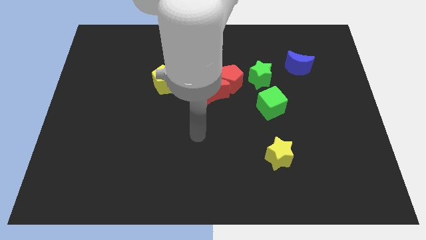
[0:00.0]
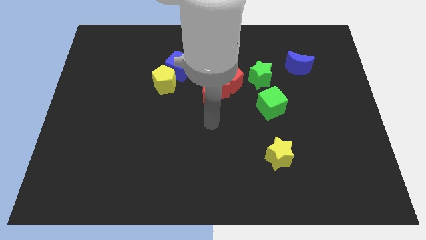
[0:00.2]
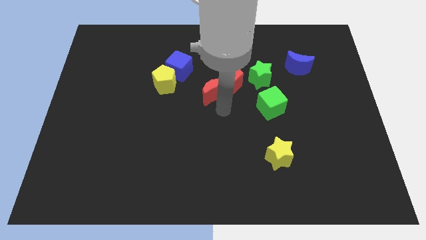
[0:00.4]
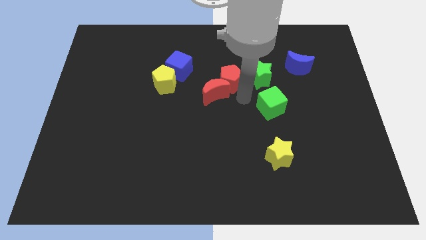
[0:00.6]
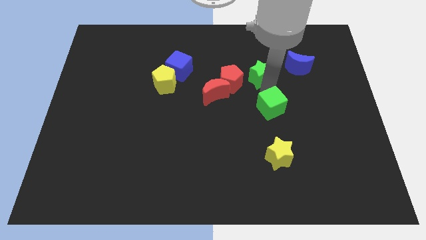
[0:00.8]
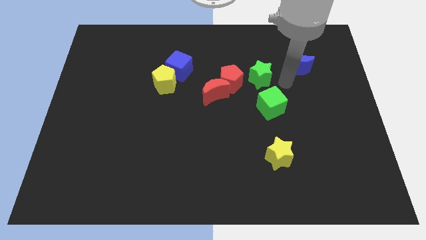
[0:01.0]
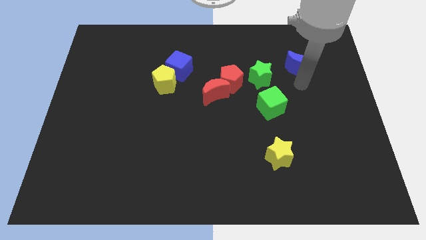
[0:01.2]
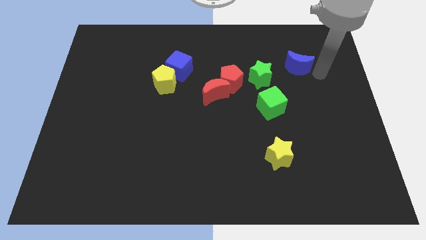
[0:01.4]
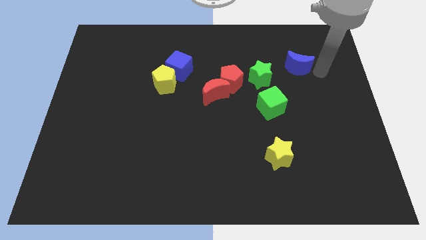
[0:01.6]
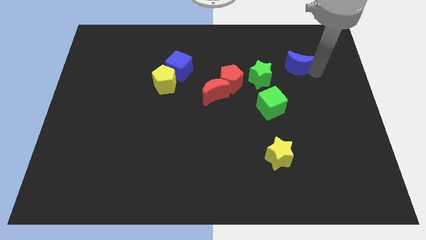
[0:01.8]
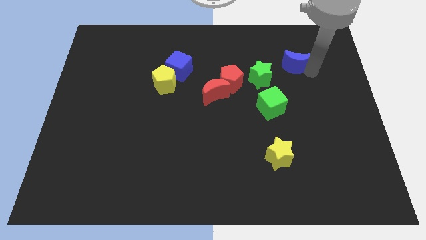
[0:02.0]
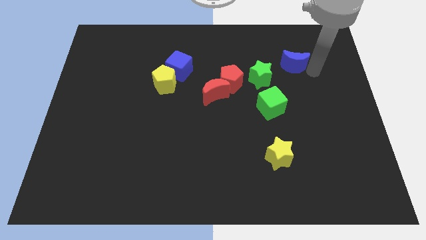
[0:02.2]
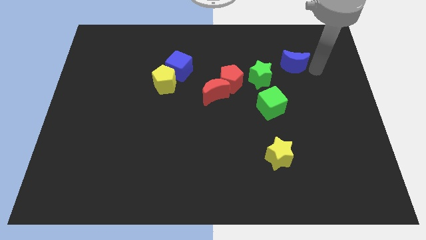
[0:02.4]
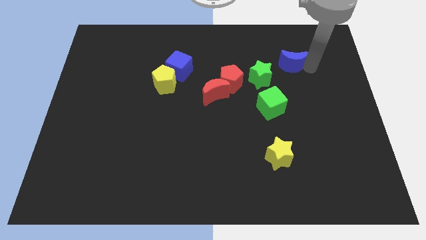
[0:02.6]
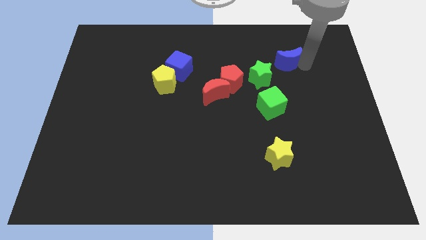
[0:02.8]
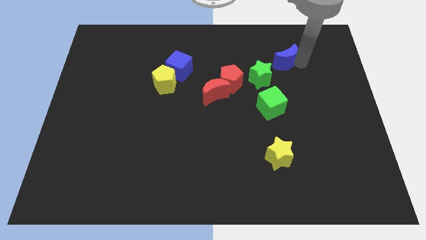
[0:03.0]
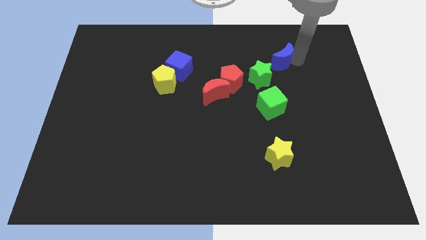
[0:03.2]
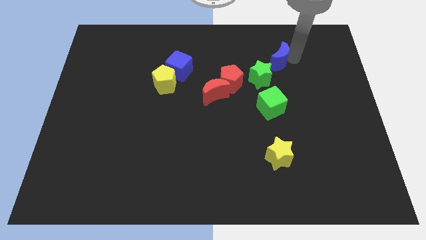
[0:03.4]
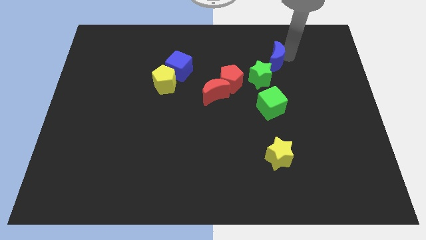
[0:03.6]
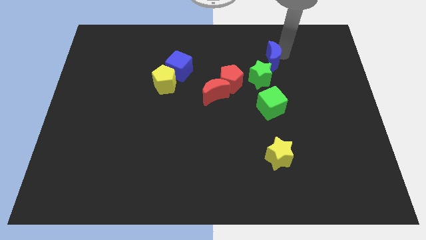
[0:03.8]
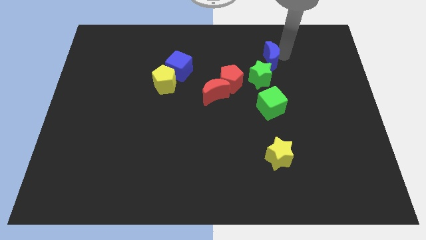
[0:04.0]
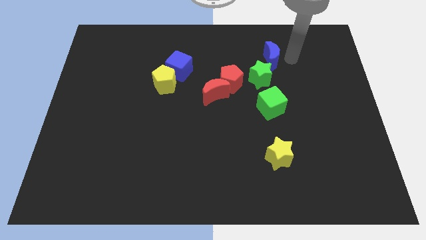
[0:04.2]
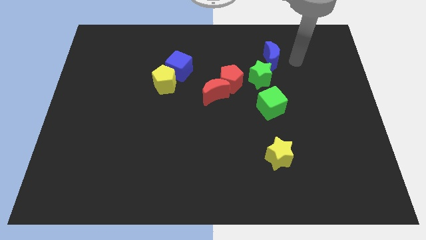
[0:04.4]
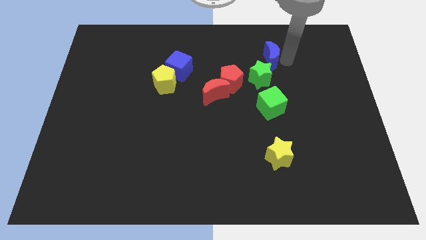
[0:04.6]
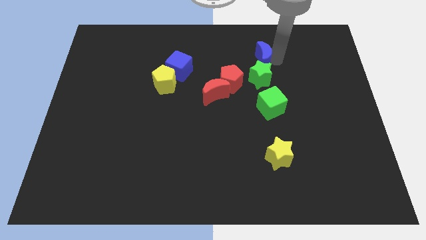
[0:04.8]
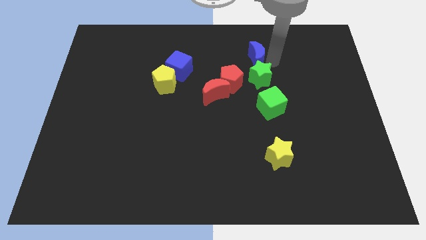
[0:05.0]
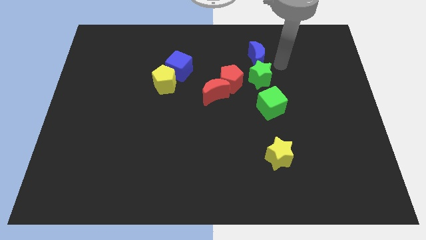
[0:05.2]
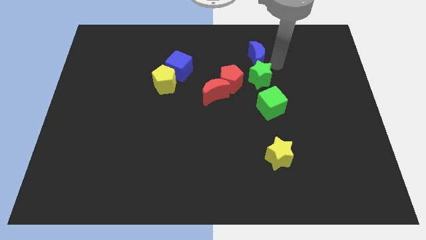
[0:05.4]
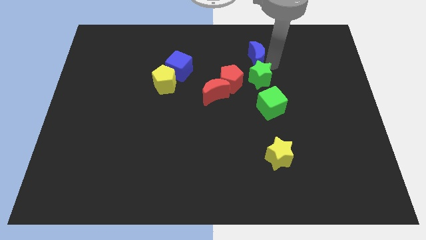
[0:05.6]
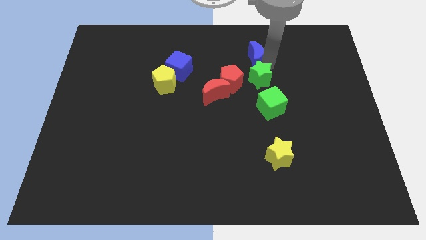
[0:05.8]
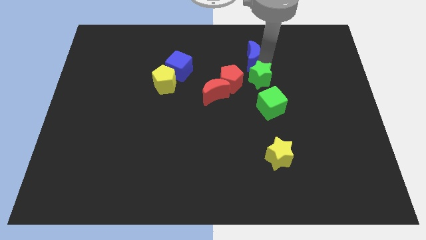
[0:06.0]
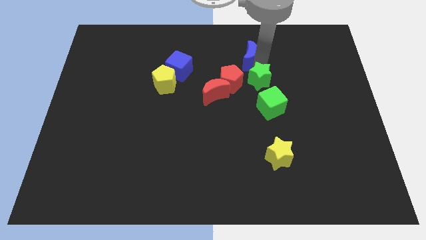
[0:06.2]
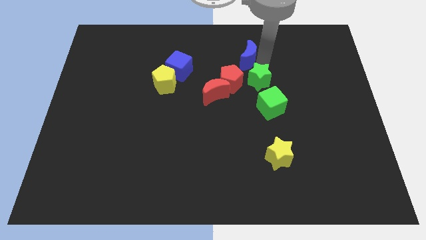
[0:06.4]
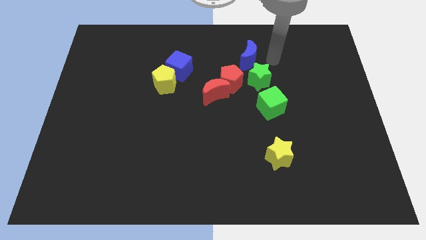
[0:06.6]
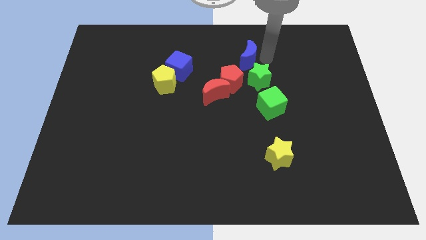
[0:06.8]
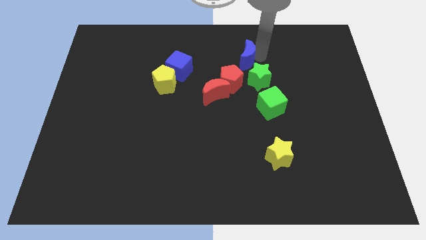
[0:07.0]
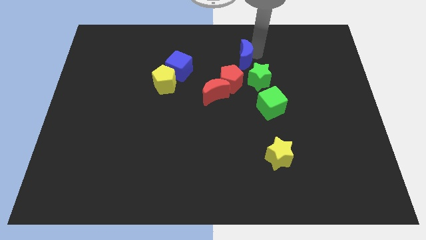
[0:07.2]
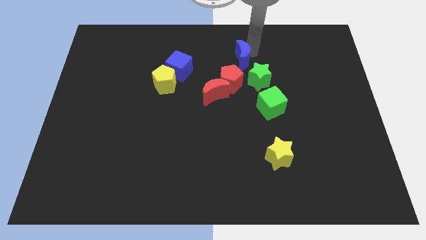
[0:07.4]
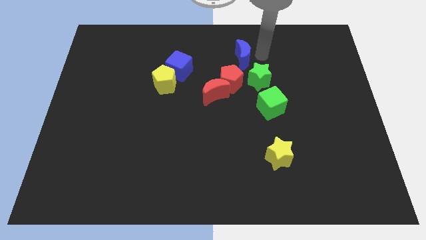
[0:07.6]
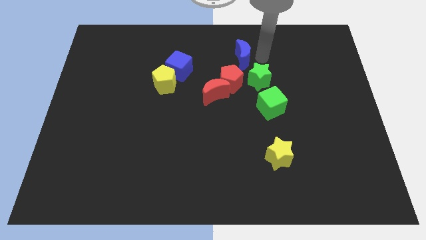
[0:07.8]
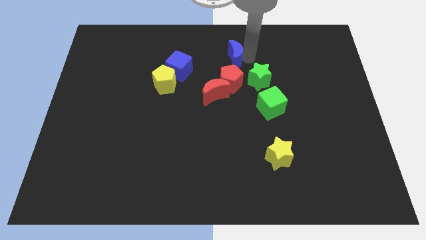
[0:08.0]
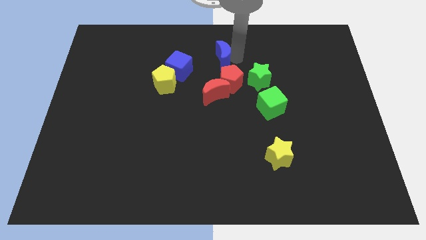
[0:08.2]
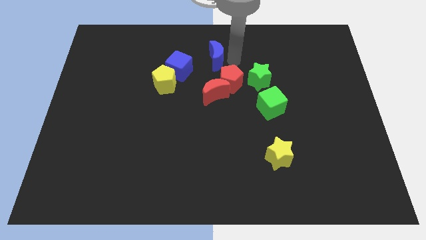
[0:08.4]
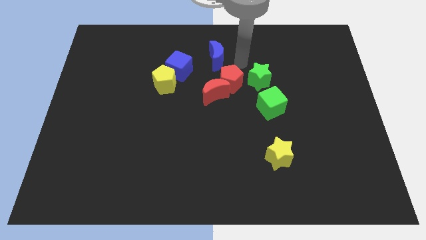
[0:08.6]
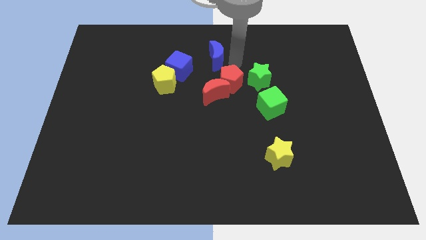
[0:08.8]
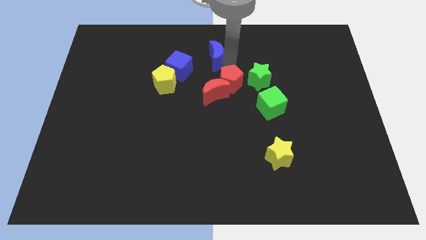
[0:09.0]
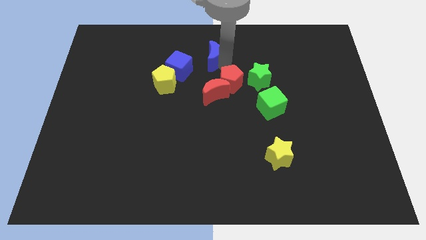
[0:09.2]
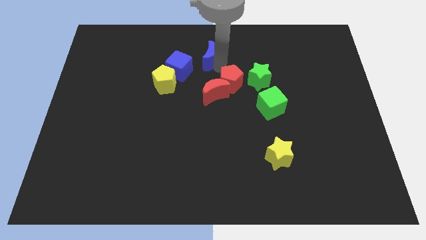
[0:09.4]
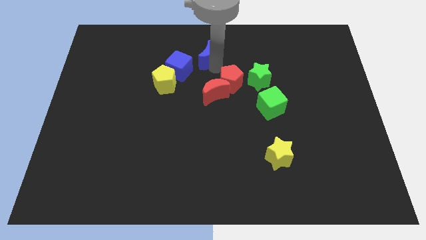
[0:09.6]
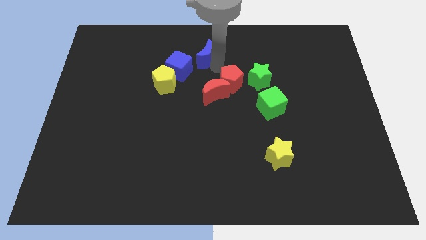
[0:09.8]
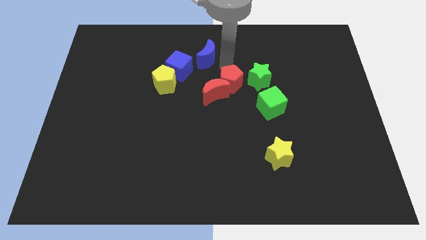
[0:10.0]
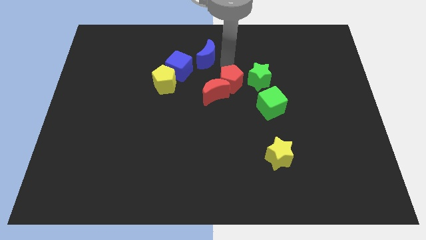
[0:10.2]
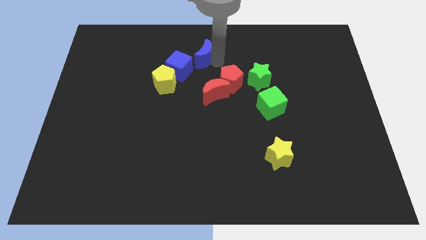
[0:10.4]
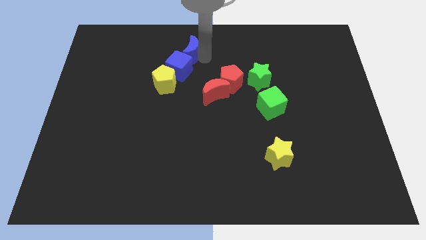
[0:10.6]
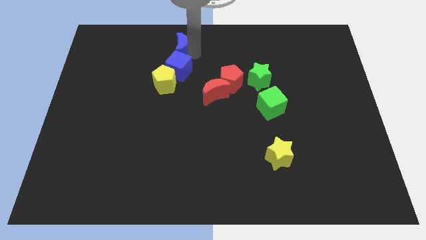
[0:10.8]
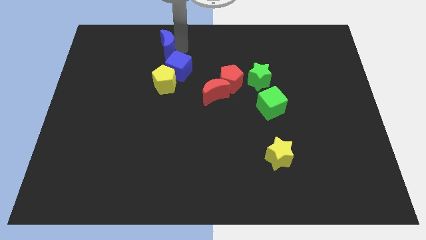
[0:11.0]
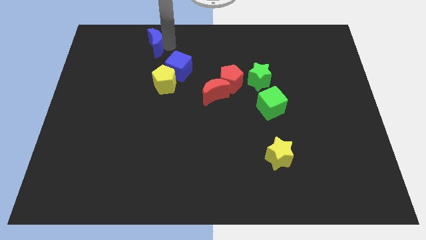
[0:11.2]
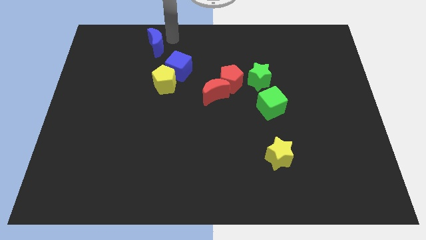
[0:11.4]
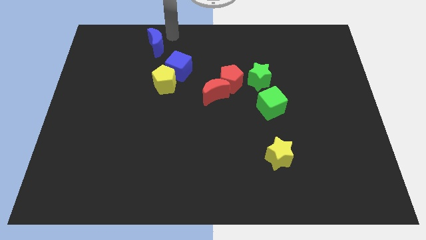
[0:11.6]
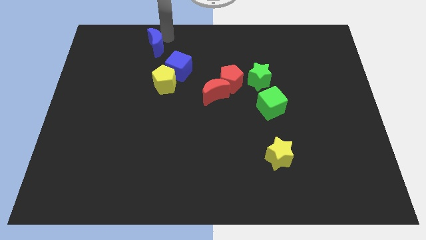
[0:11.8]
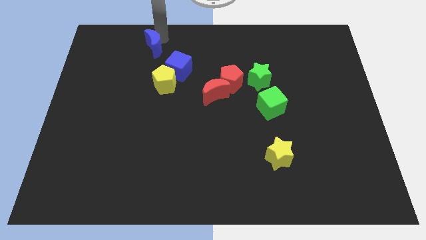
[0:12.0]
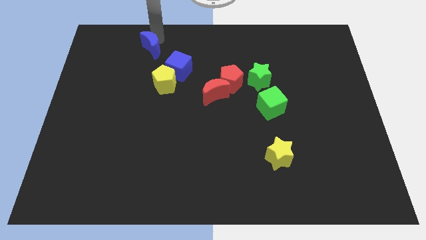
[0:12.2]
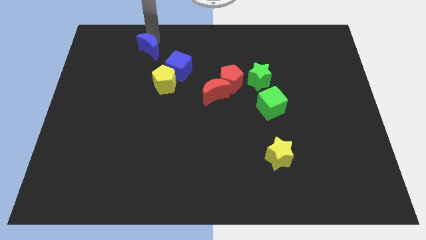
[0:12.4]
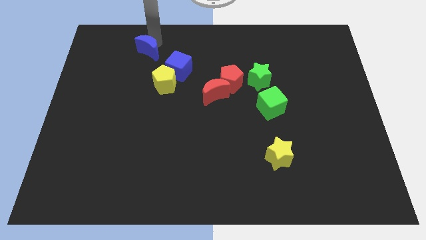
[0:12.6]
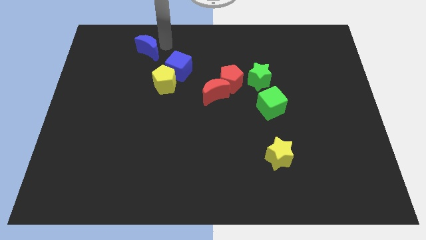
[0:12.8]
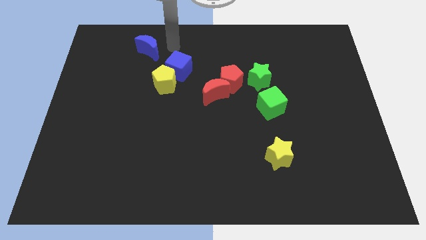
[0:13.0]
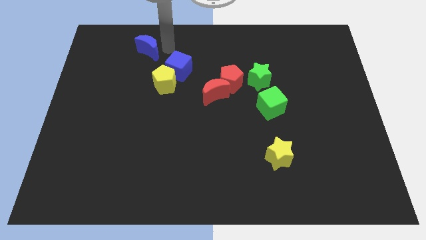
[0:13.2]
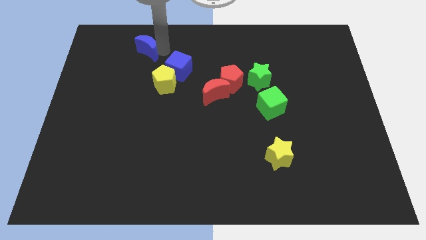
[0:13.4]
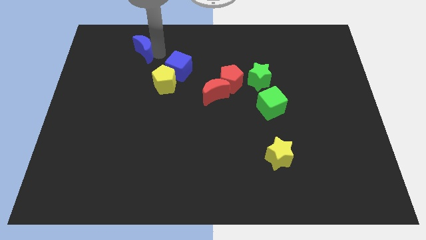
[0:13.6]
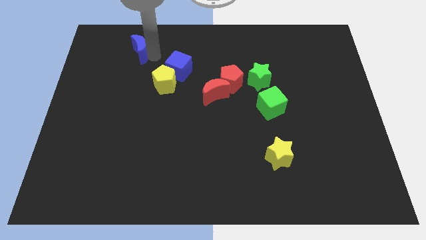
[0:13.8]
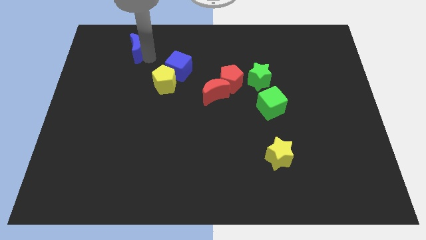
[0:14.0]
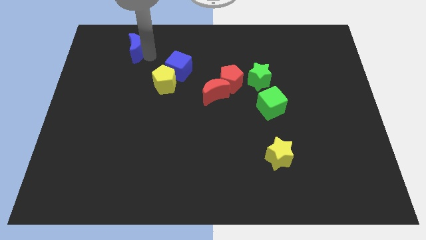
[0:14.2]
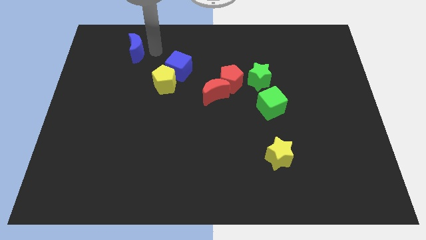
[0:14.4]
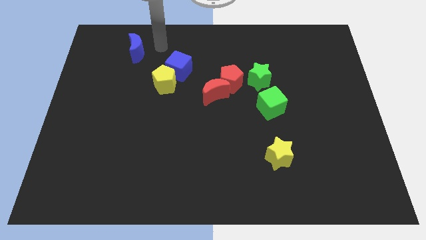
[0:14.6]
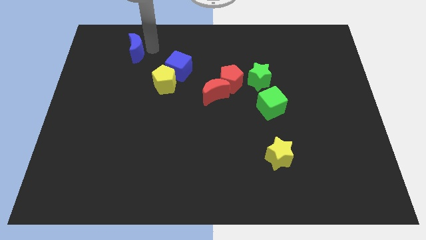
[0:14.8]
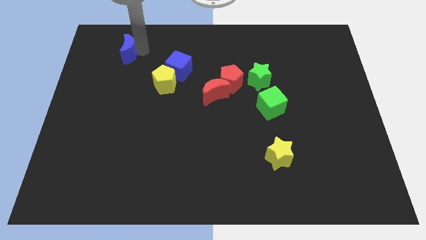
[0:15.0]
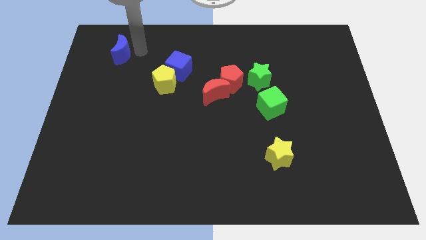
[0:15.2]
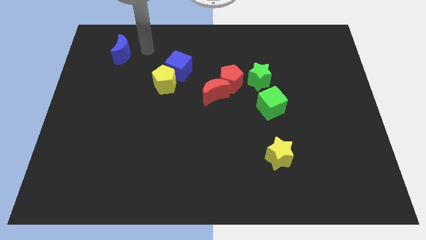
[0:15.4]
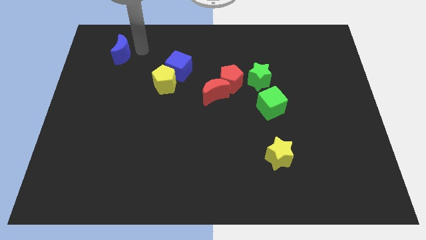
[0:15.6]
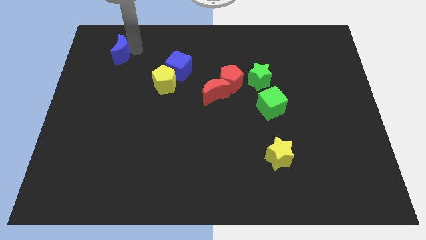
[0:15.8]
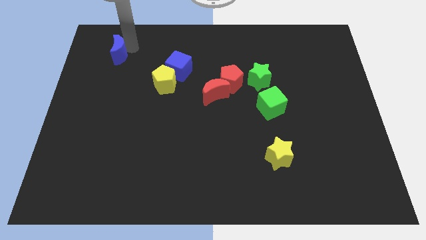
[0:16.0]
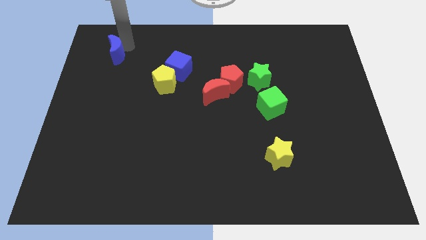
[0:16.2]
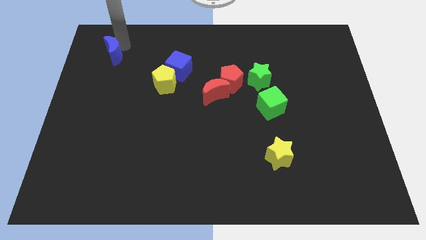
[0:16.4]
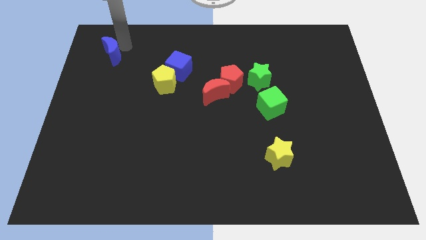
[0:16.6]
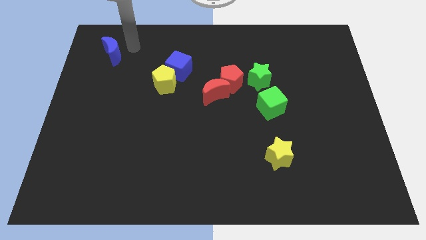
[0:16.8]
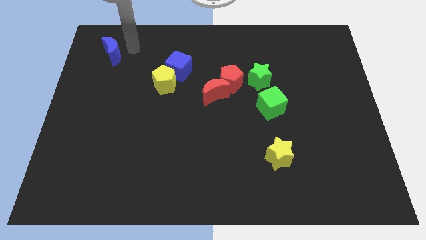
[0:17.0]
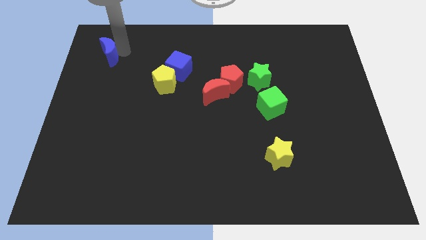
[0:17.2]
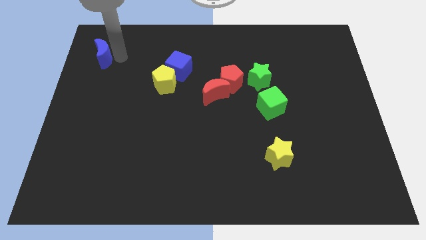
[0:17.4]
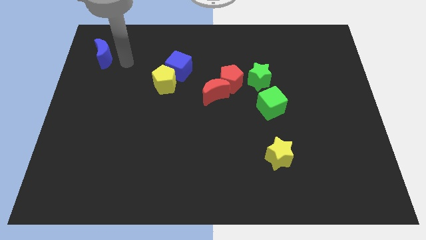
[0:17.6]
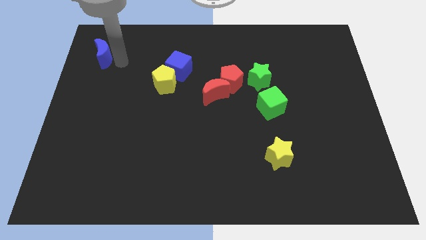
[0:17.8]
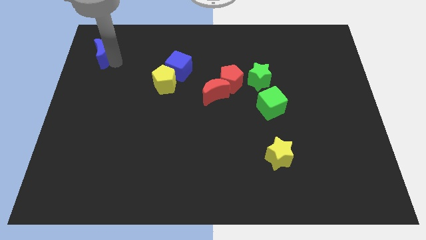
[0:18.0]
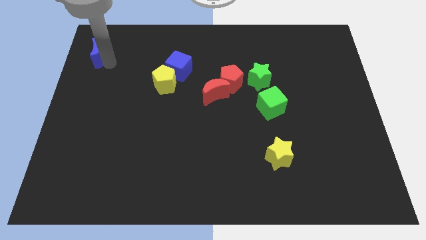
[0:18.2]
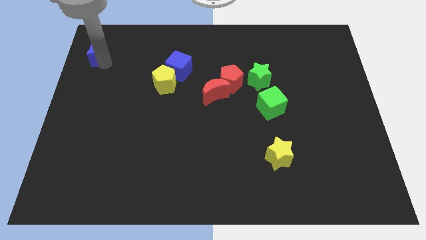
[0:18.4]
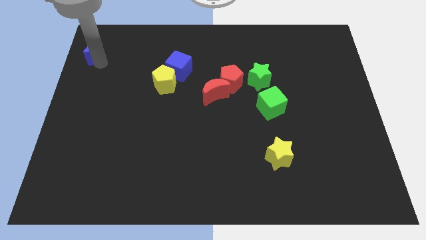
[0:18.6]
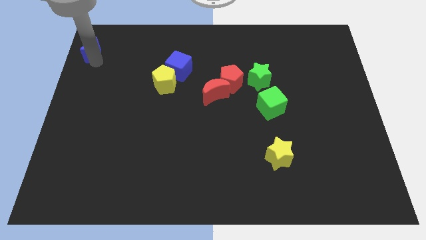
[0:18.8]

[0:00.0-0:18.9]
put the blue moon to the upper left corner
